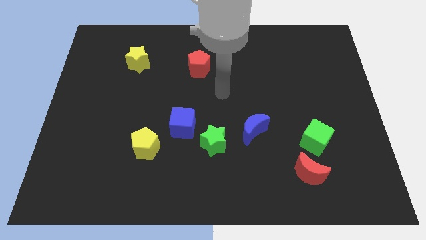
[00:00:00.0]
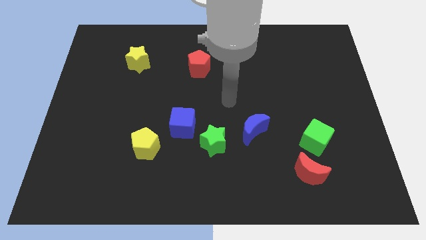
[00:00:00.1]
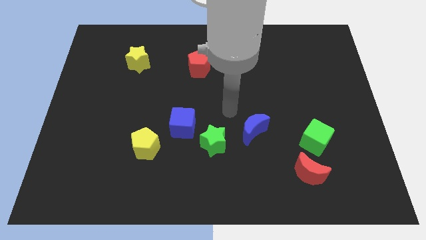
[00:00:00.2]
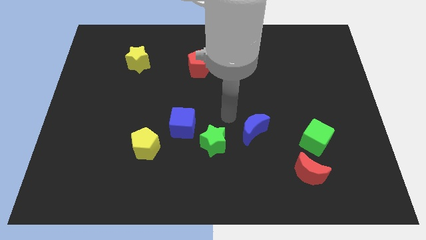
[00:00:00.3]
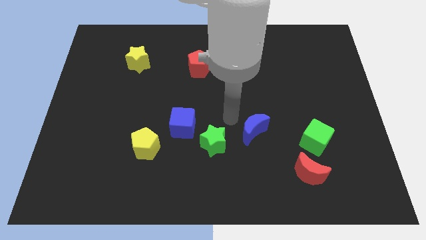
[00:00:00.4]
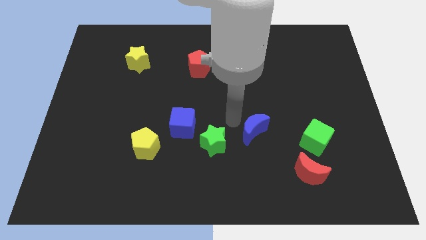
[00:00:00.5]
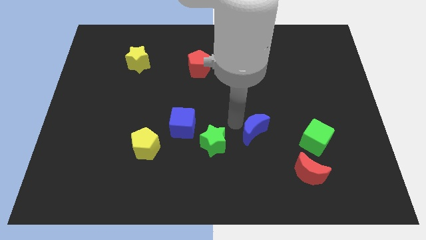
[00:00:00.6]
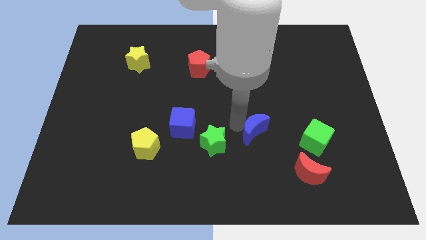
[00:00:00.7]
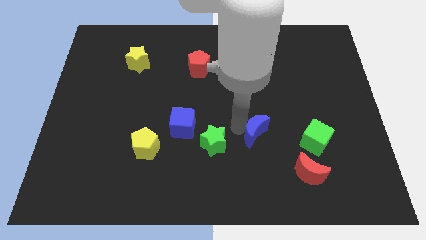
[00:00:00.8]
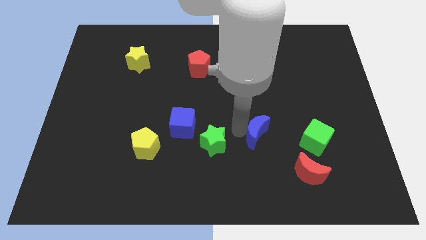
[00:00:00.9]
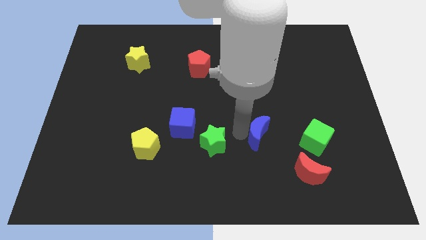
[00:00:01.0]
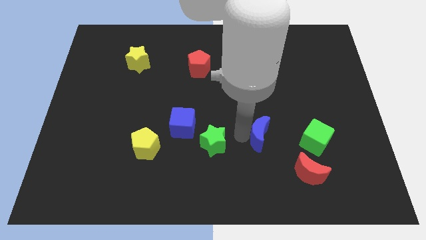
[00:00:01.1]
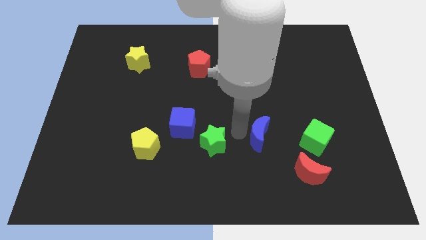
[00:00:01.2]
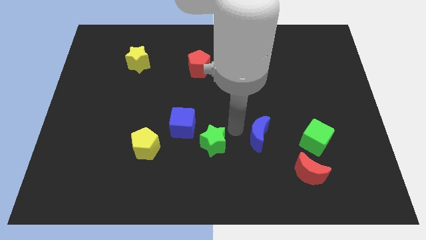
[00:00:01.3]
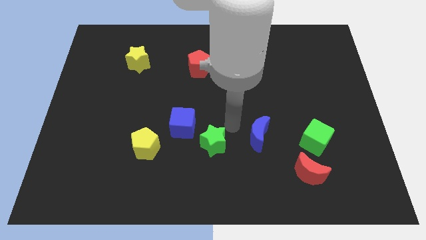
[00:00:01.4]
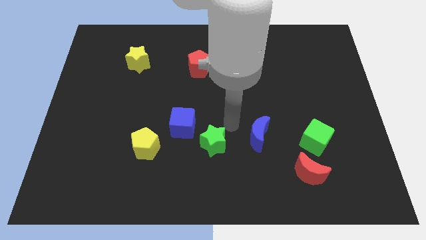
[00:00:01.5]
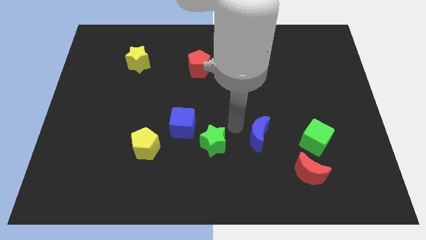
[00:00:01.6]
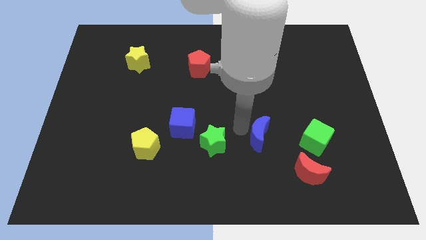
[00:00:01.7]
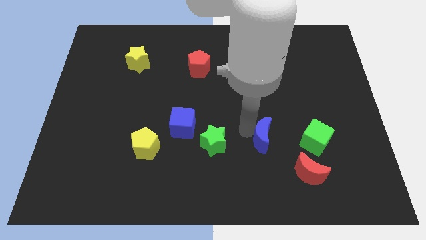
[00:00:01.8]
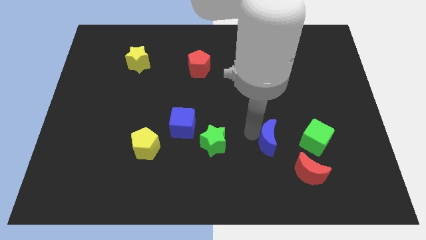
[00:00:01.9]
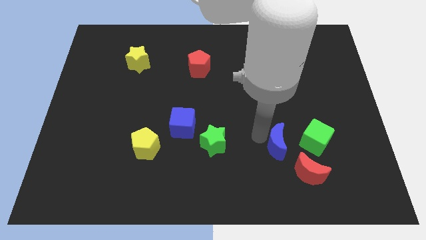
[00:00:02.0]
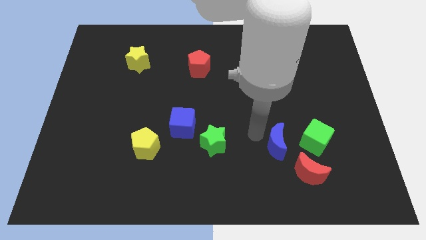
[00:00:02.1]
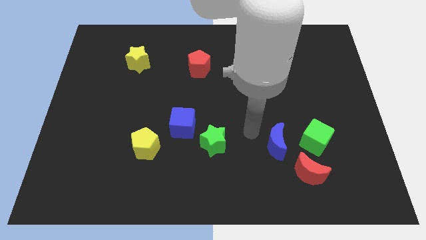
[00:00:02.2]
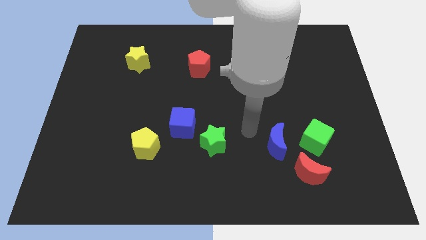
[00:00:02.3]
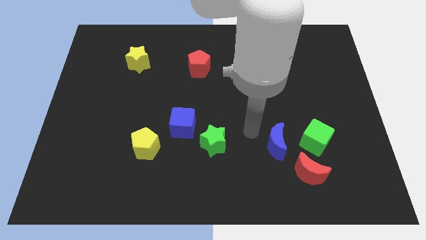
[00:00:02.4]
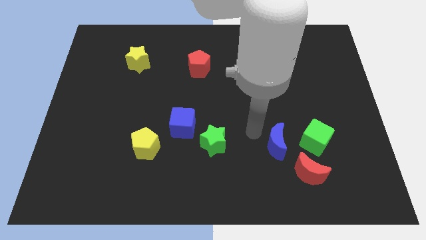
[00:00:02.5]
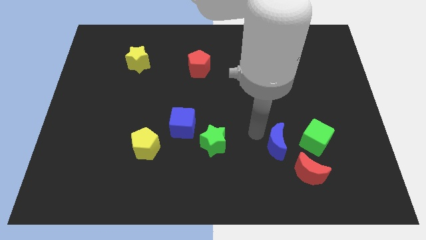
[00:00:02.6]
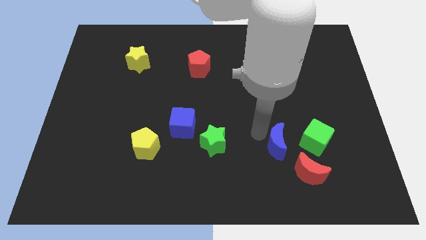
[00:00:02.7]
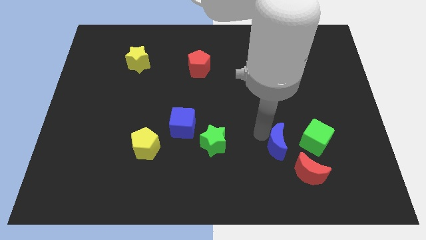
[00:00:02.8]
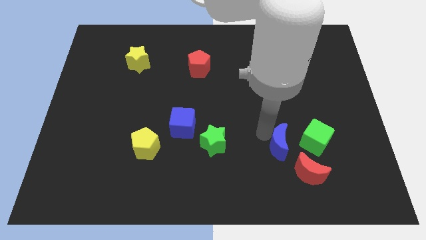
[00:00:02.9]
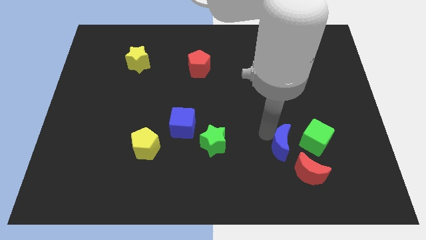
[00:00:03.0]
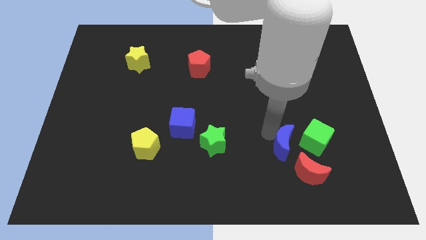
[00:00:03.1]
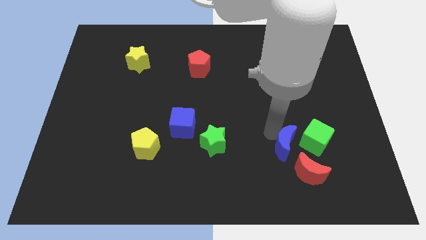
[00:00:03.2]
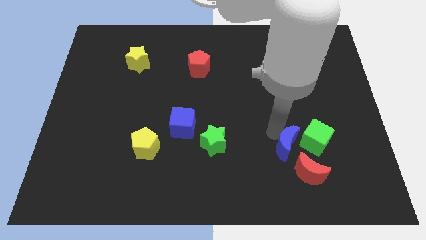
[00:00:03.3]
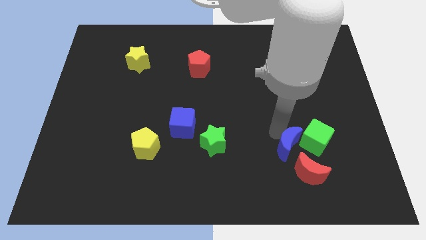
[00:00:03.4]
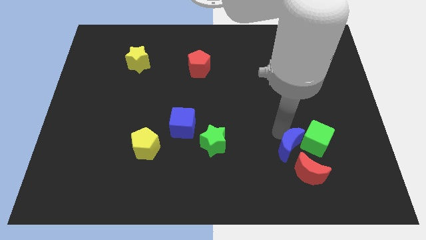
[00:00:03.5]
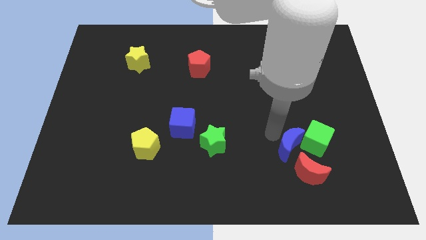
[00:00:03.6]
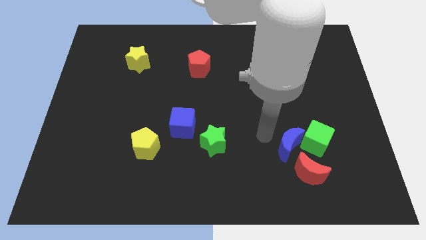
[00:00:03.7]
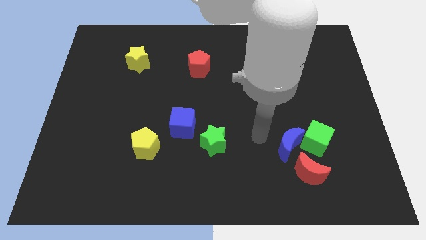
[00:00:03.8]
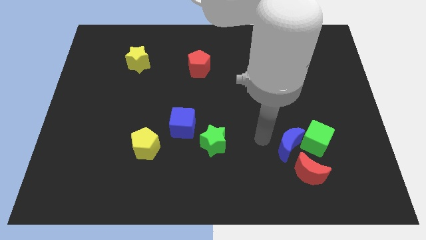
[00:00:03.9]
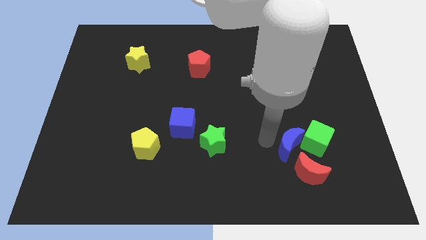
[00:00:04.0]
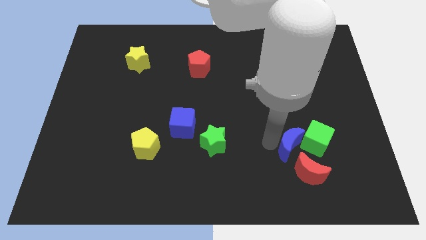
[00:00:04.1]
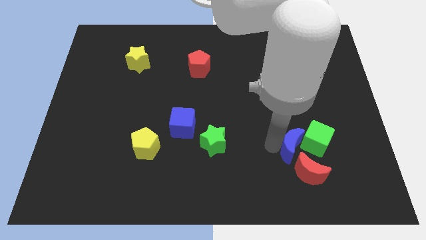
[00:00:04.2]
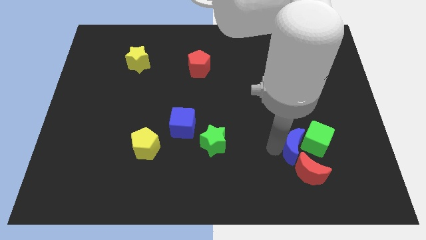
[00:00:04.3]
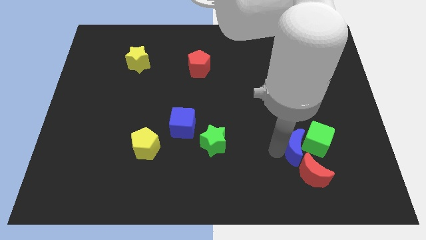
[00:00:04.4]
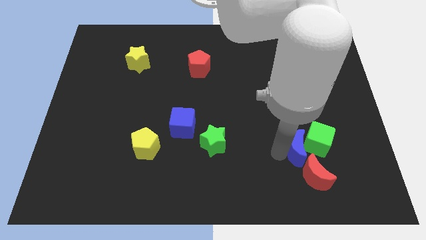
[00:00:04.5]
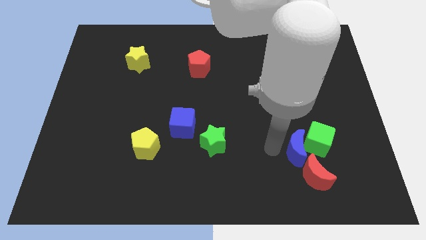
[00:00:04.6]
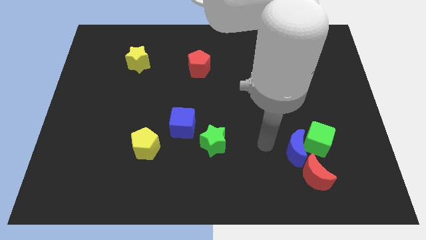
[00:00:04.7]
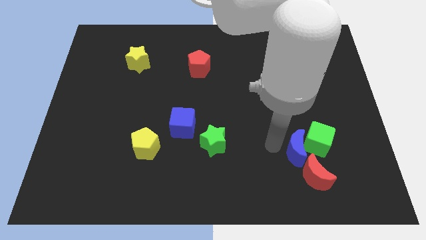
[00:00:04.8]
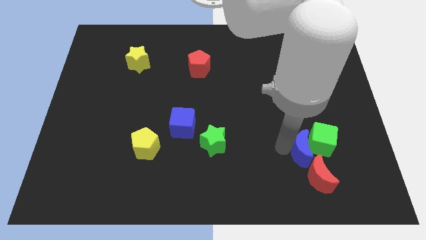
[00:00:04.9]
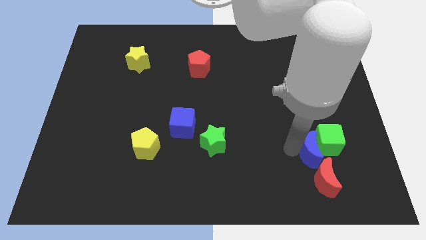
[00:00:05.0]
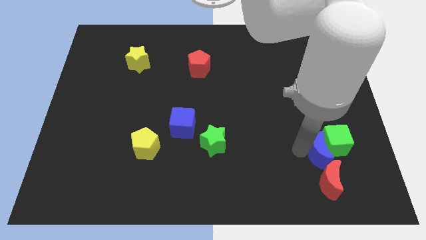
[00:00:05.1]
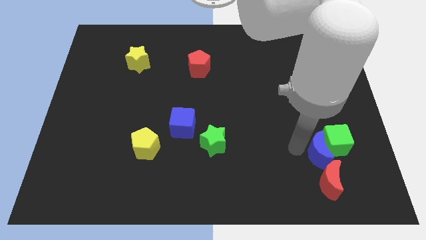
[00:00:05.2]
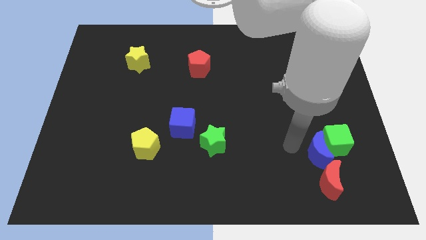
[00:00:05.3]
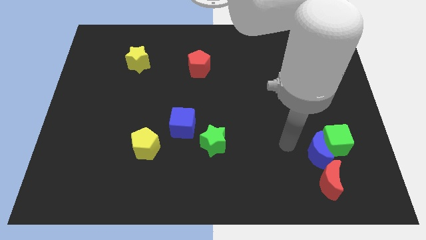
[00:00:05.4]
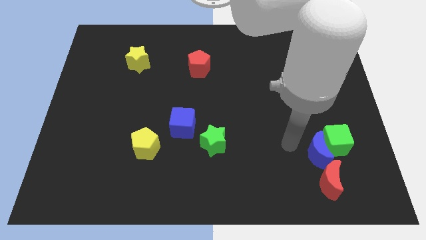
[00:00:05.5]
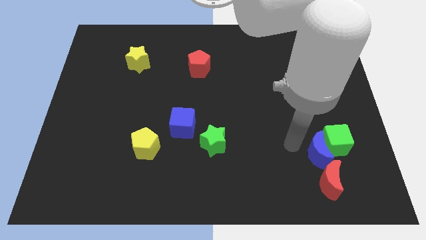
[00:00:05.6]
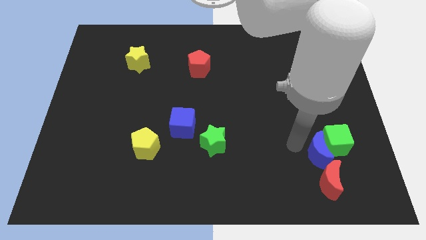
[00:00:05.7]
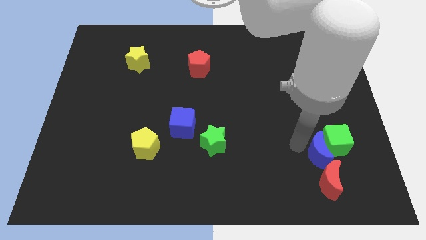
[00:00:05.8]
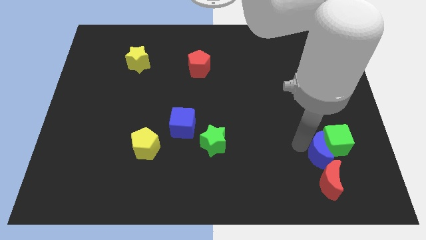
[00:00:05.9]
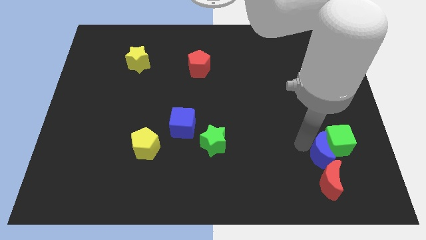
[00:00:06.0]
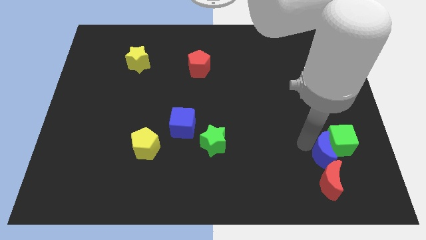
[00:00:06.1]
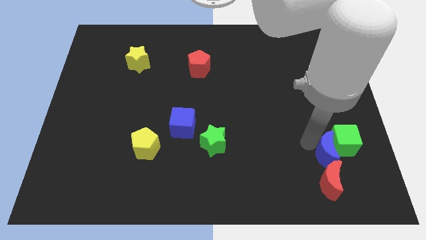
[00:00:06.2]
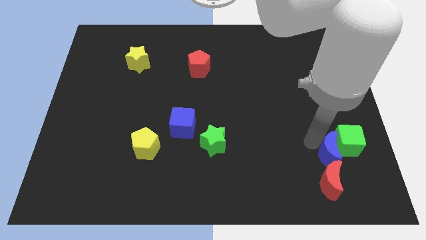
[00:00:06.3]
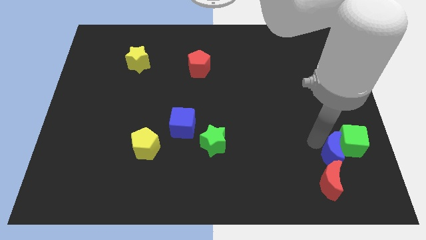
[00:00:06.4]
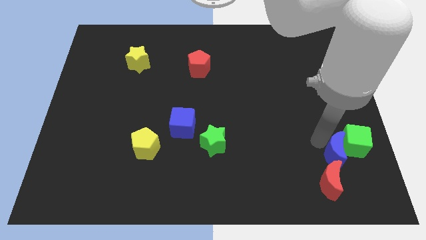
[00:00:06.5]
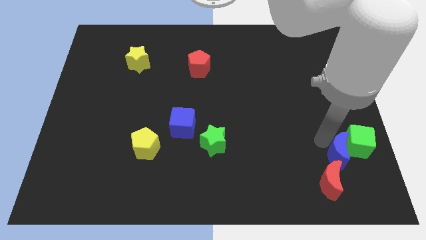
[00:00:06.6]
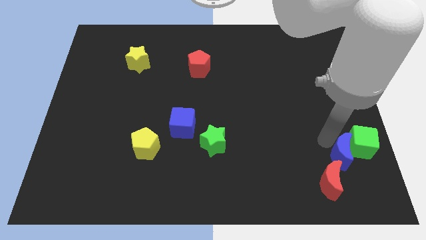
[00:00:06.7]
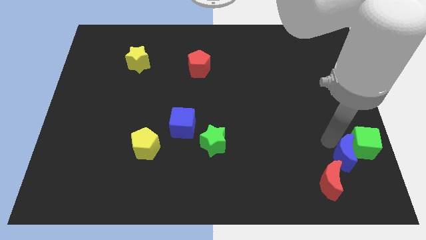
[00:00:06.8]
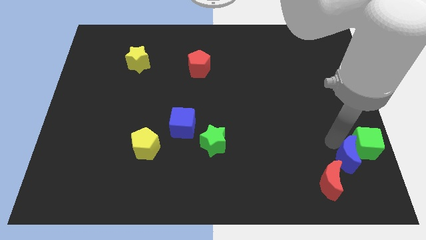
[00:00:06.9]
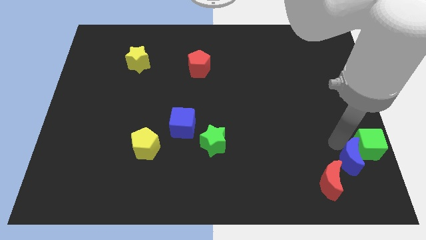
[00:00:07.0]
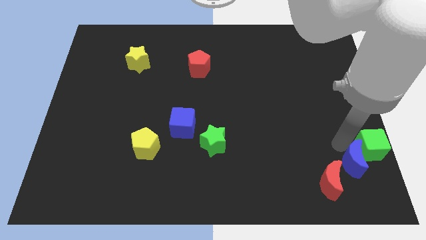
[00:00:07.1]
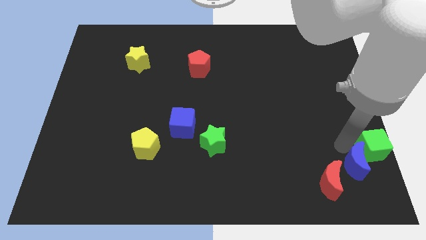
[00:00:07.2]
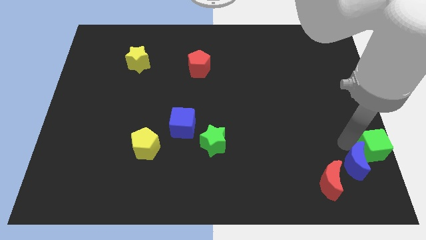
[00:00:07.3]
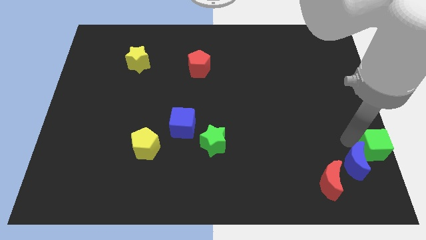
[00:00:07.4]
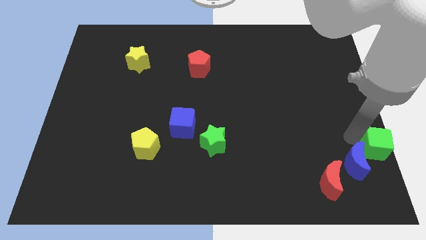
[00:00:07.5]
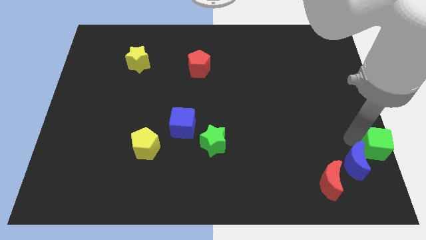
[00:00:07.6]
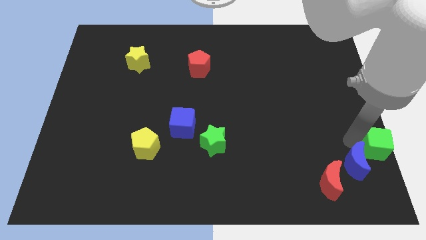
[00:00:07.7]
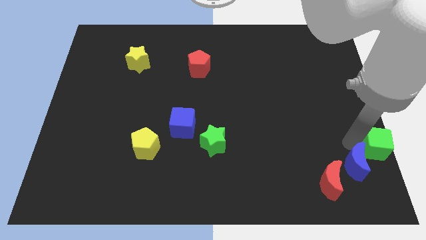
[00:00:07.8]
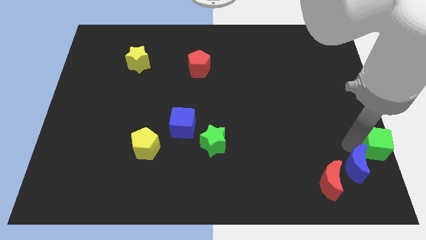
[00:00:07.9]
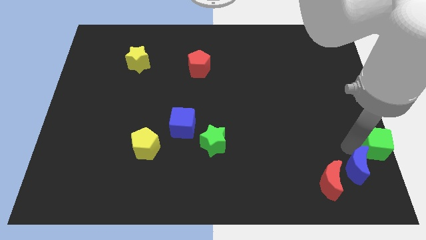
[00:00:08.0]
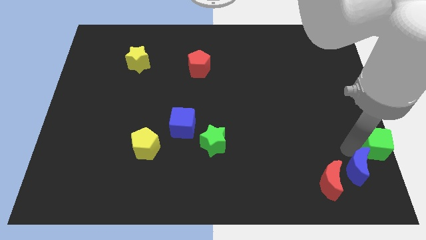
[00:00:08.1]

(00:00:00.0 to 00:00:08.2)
put the blue moon to the bottom right corner
